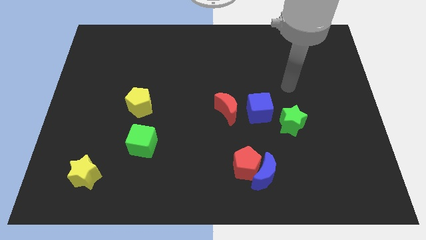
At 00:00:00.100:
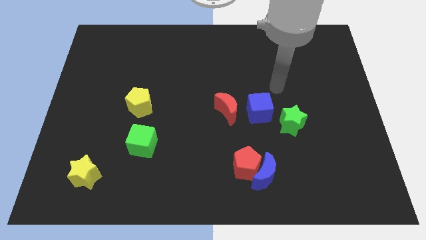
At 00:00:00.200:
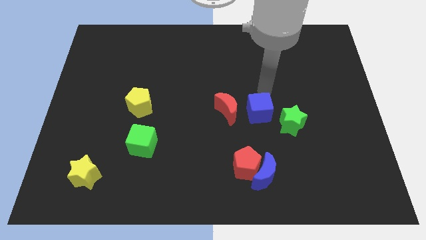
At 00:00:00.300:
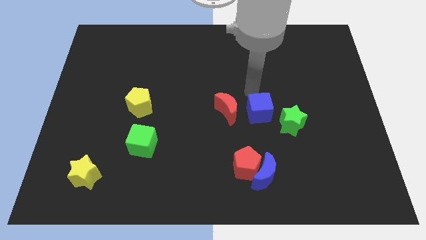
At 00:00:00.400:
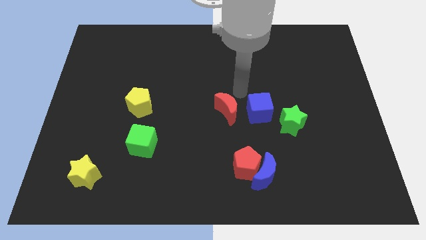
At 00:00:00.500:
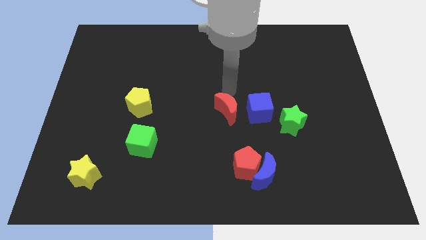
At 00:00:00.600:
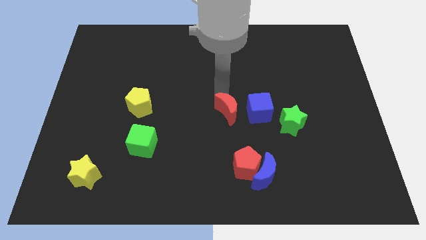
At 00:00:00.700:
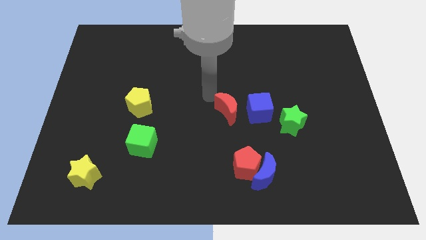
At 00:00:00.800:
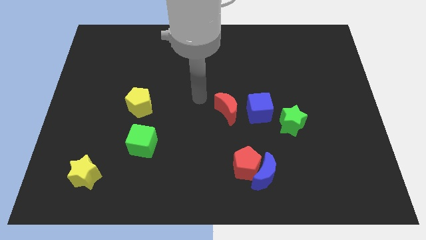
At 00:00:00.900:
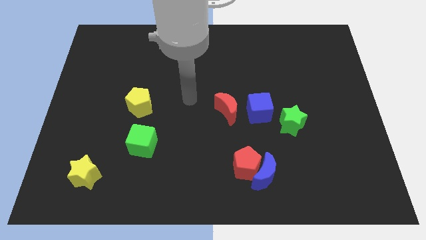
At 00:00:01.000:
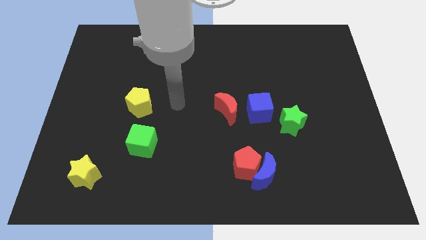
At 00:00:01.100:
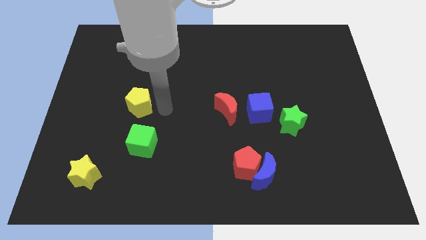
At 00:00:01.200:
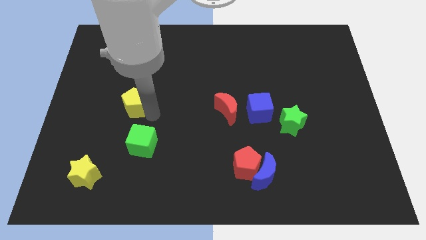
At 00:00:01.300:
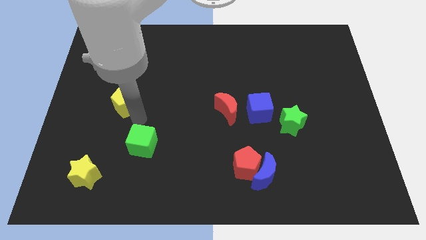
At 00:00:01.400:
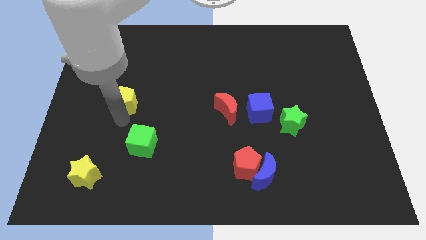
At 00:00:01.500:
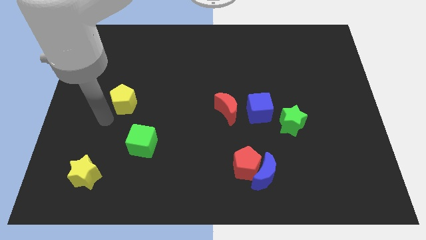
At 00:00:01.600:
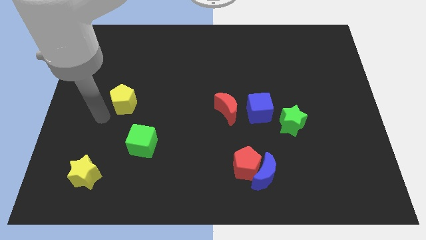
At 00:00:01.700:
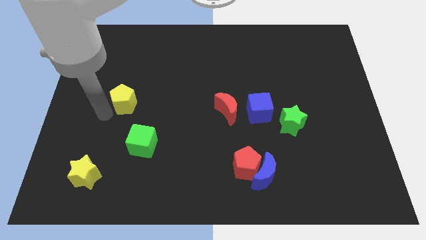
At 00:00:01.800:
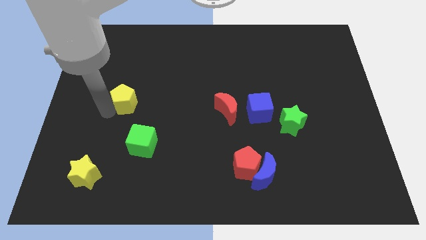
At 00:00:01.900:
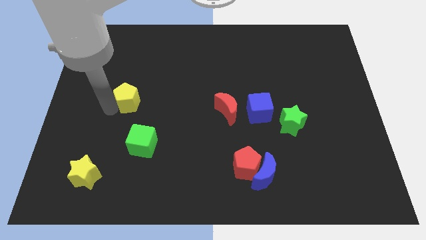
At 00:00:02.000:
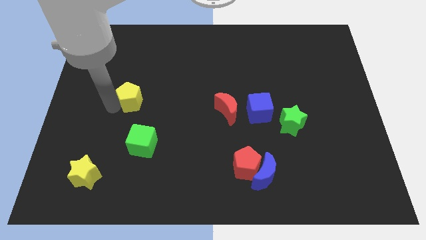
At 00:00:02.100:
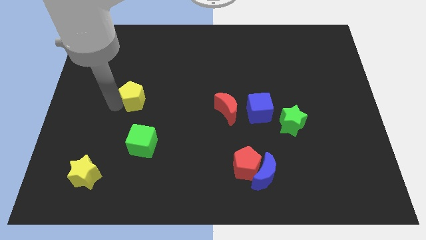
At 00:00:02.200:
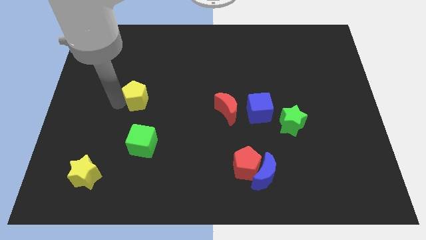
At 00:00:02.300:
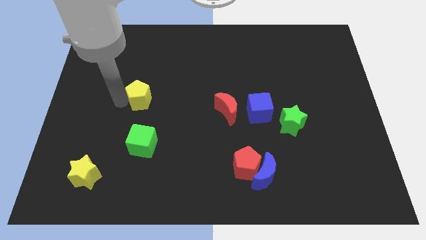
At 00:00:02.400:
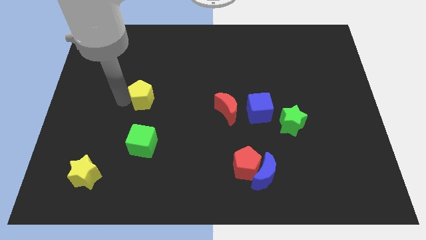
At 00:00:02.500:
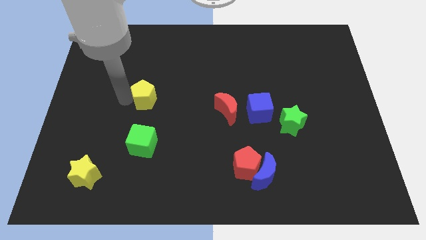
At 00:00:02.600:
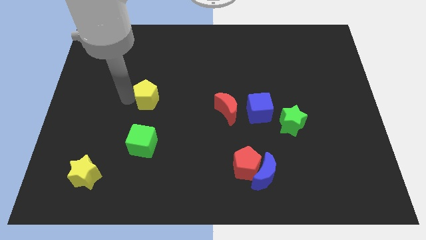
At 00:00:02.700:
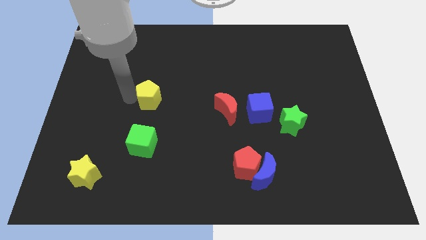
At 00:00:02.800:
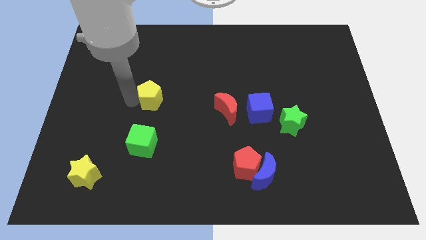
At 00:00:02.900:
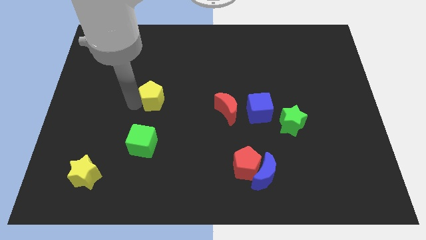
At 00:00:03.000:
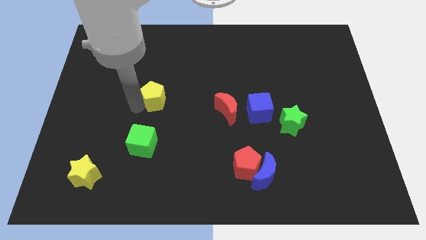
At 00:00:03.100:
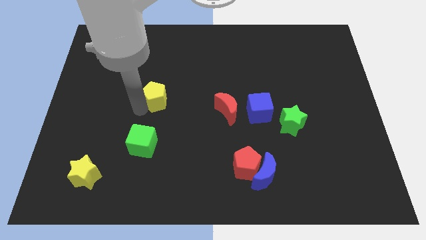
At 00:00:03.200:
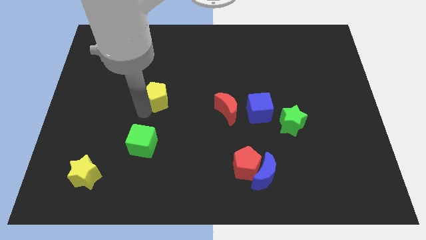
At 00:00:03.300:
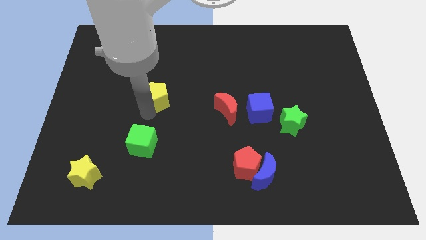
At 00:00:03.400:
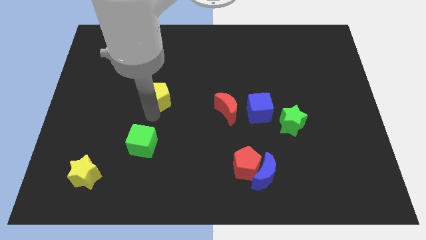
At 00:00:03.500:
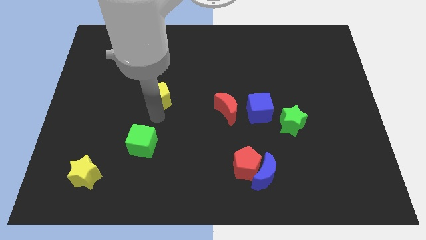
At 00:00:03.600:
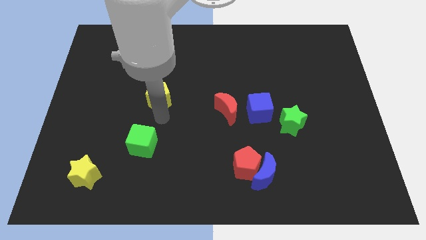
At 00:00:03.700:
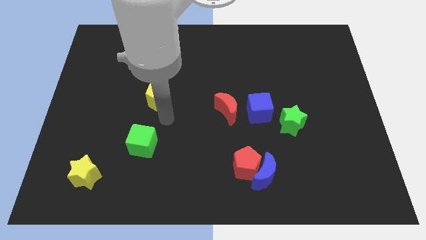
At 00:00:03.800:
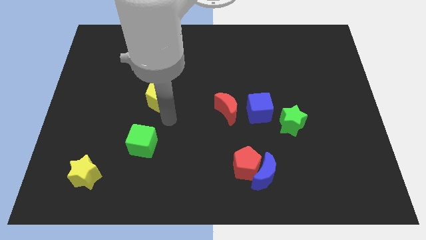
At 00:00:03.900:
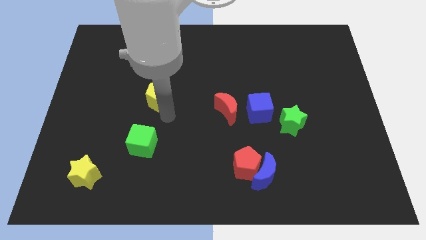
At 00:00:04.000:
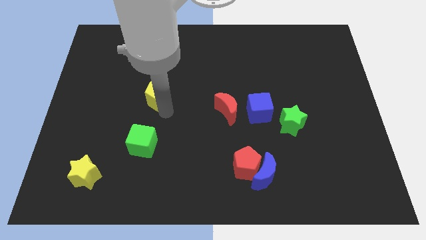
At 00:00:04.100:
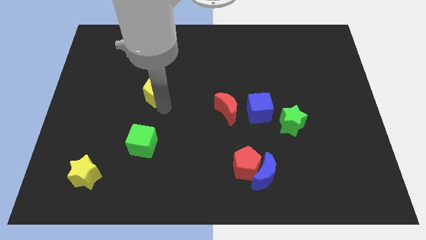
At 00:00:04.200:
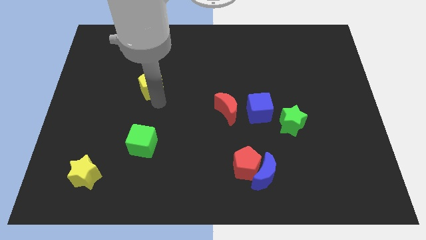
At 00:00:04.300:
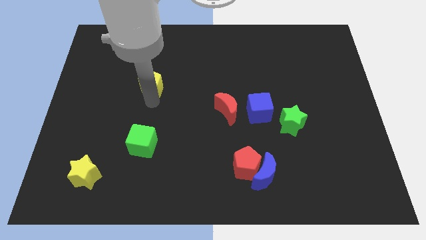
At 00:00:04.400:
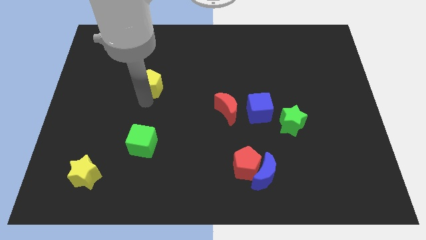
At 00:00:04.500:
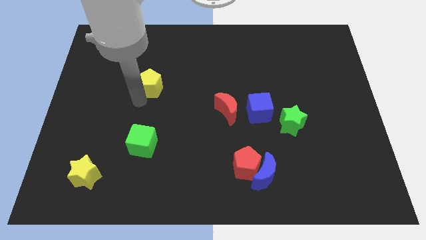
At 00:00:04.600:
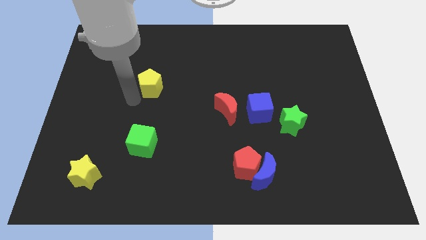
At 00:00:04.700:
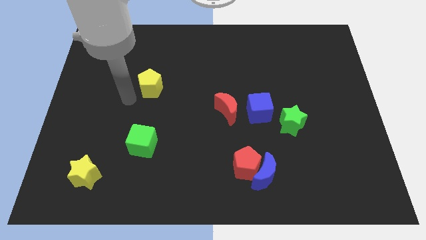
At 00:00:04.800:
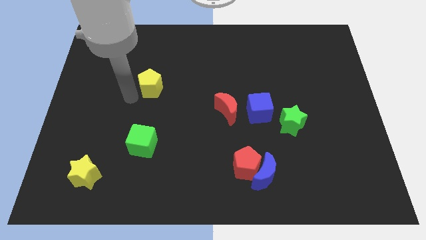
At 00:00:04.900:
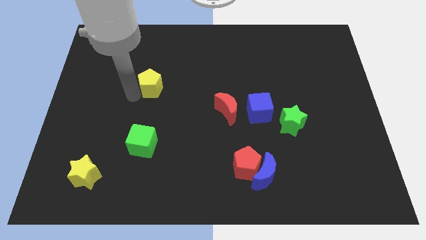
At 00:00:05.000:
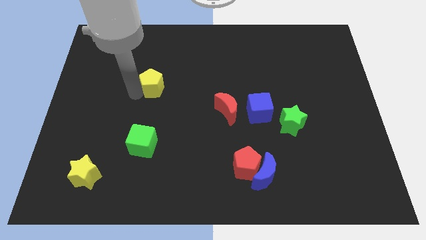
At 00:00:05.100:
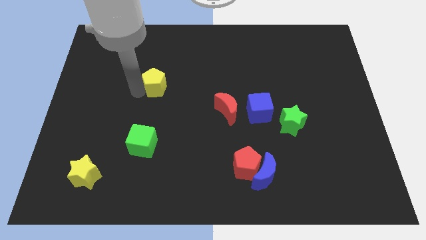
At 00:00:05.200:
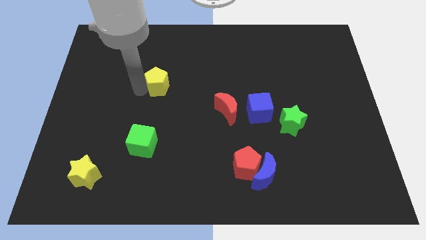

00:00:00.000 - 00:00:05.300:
slightly move the yellow pentagon diagonally upwards and to the right

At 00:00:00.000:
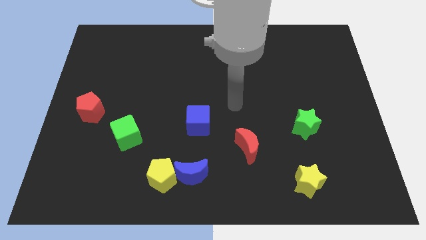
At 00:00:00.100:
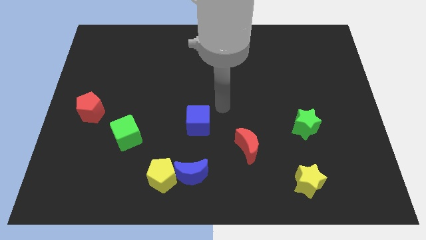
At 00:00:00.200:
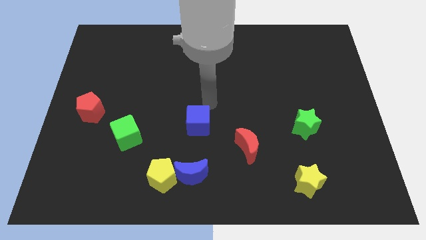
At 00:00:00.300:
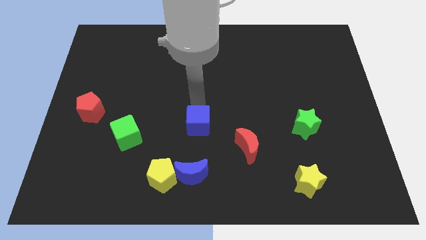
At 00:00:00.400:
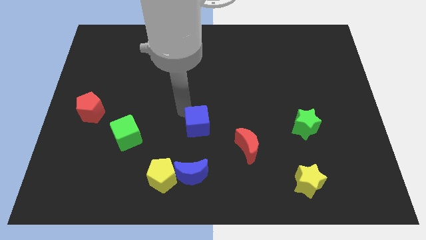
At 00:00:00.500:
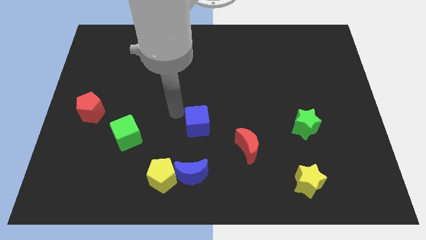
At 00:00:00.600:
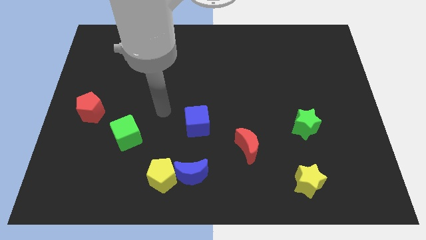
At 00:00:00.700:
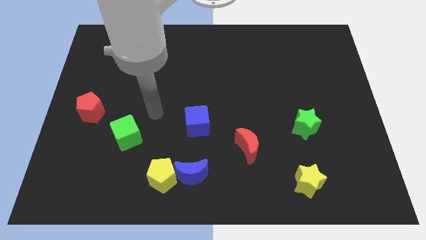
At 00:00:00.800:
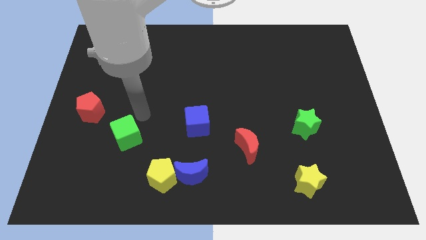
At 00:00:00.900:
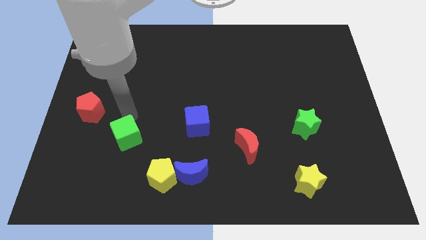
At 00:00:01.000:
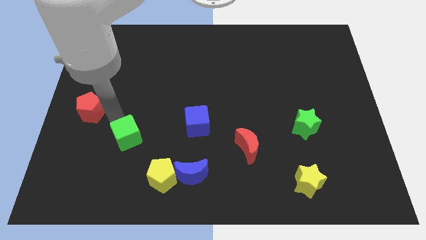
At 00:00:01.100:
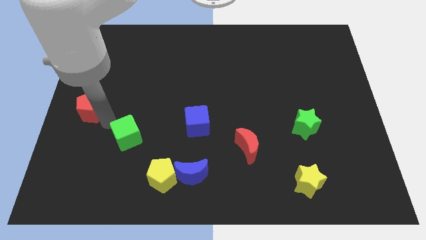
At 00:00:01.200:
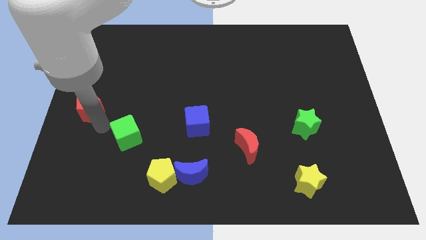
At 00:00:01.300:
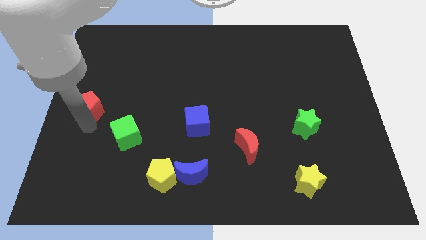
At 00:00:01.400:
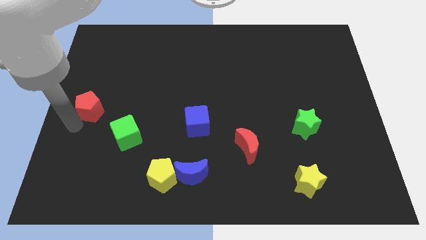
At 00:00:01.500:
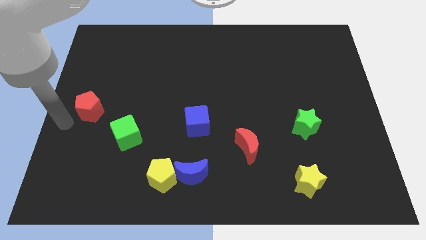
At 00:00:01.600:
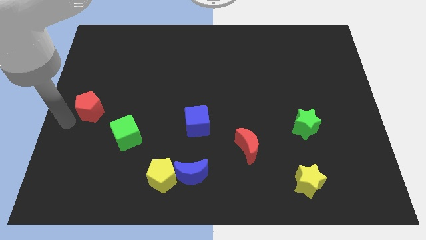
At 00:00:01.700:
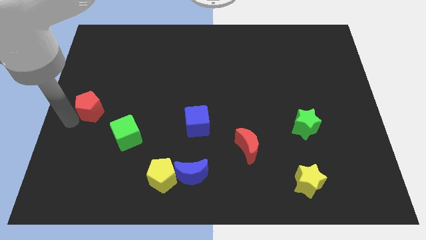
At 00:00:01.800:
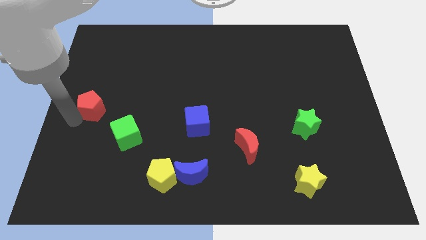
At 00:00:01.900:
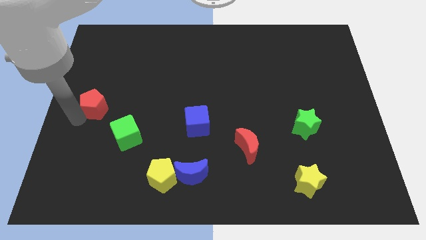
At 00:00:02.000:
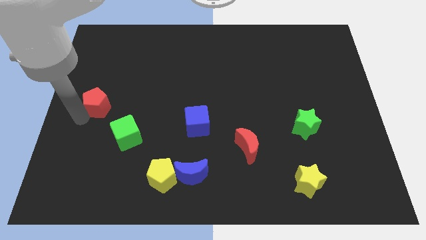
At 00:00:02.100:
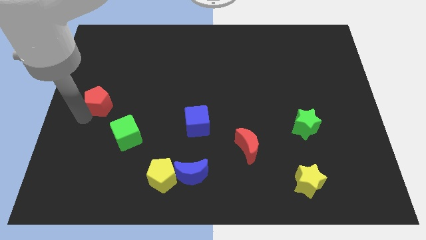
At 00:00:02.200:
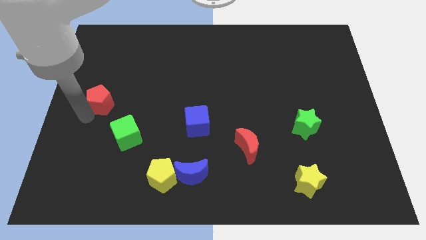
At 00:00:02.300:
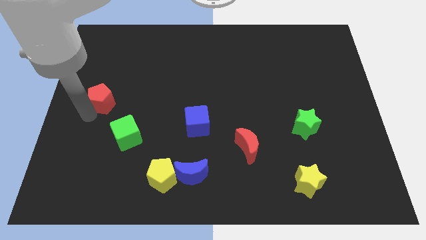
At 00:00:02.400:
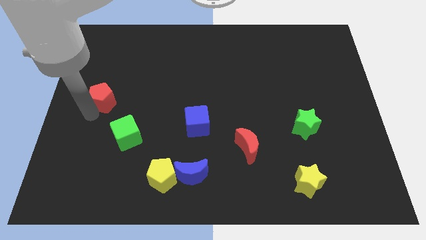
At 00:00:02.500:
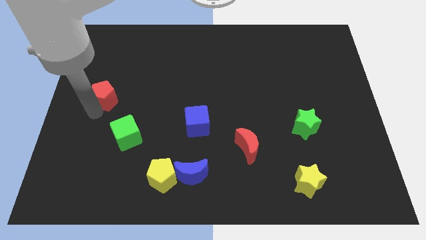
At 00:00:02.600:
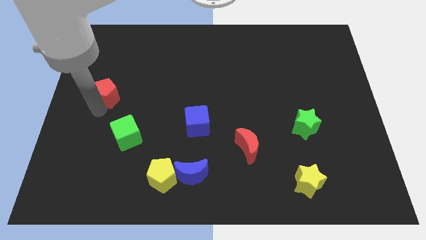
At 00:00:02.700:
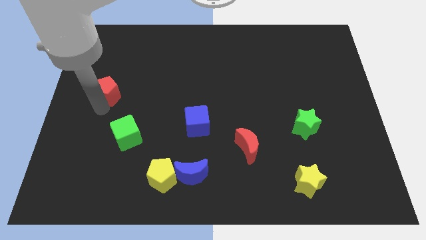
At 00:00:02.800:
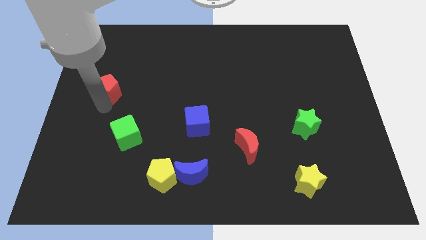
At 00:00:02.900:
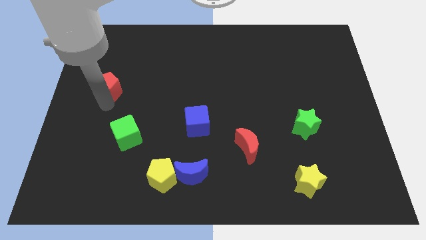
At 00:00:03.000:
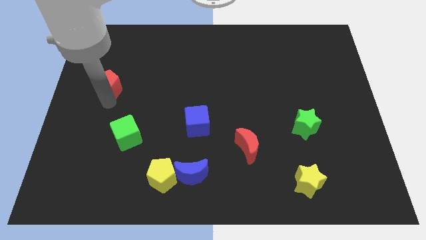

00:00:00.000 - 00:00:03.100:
slightly push the red pentagon diagonally up and right
